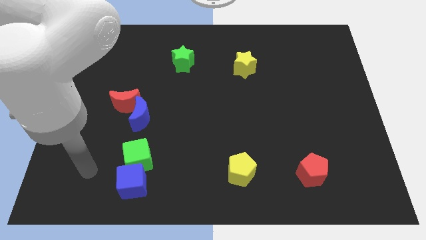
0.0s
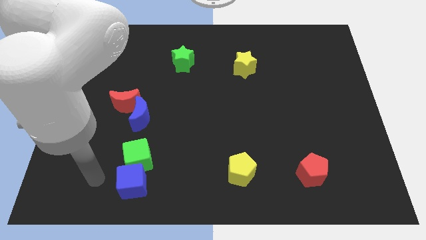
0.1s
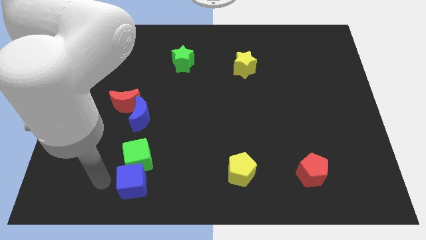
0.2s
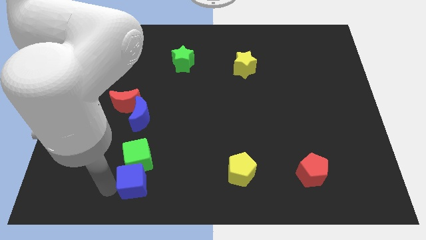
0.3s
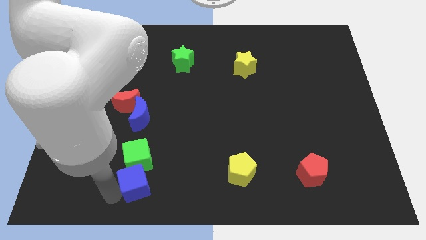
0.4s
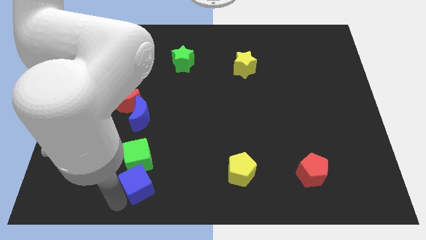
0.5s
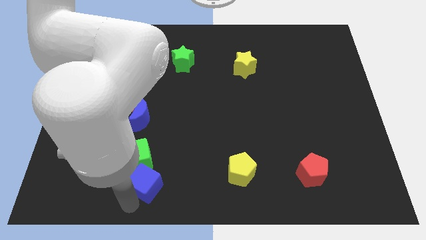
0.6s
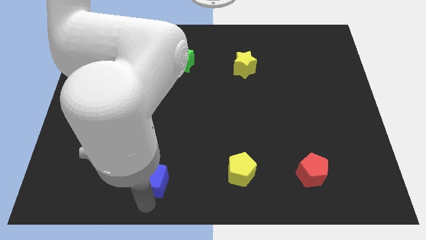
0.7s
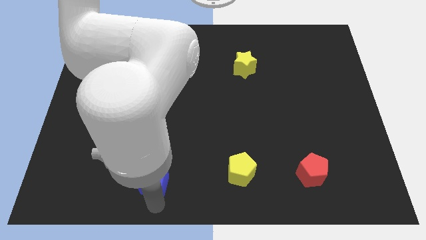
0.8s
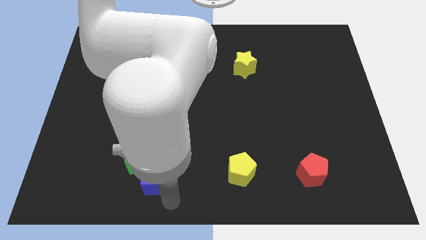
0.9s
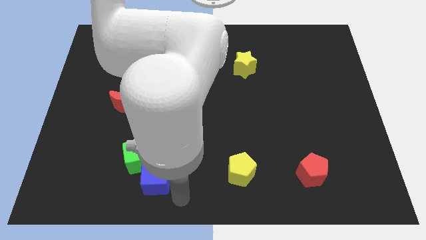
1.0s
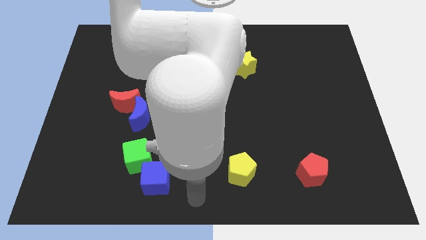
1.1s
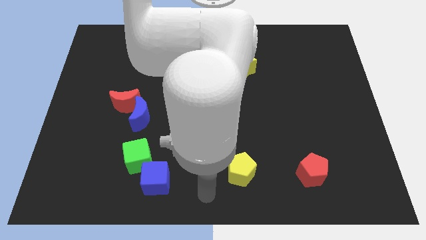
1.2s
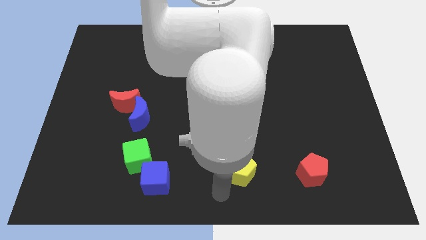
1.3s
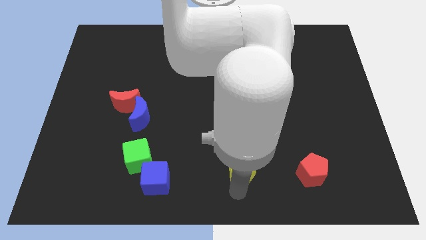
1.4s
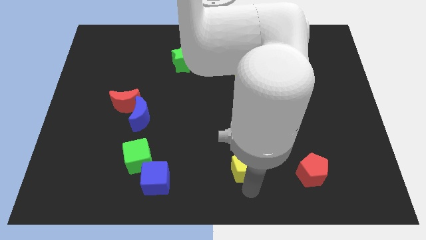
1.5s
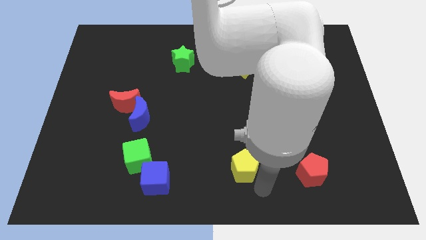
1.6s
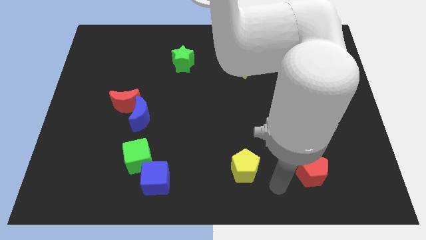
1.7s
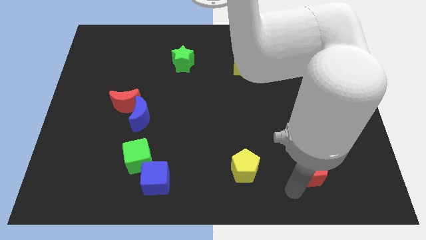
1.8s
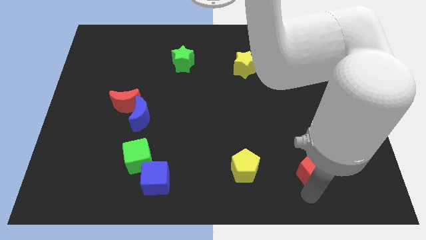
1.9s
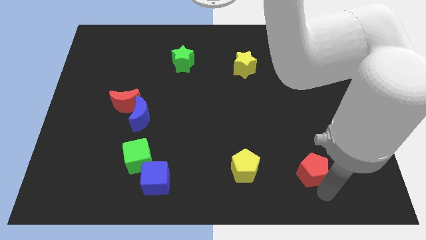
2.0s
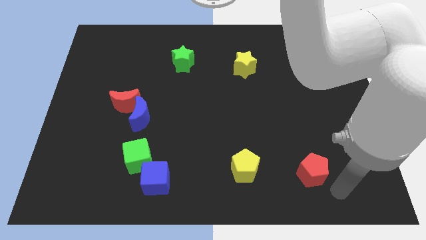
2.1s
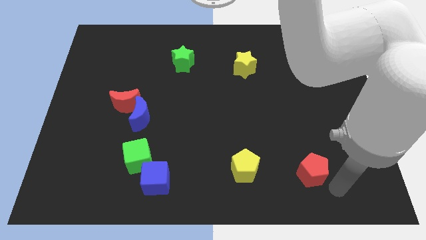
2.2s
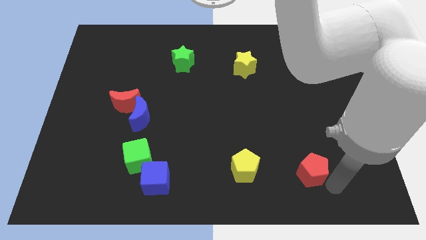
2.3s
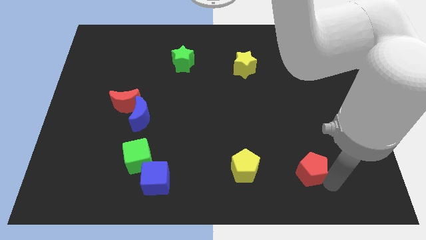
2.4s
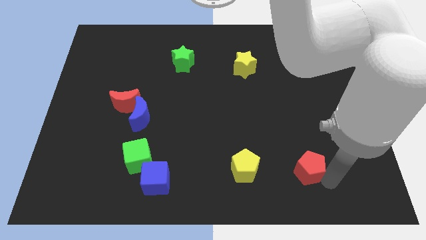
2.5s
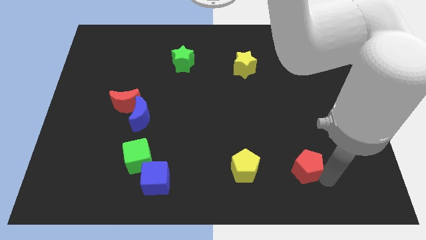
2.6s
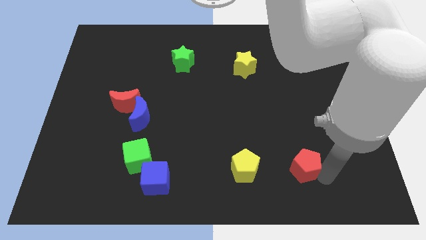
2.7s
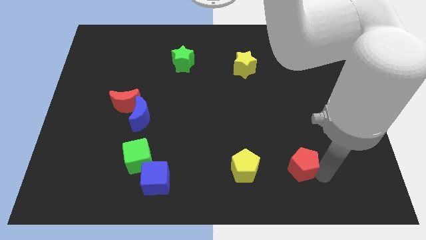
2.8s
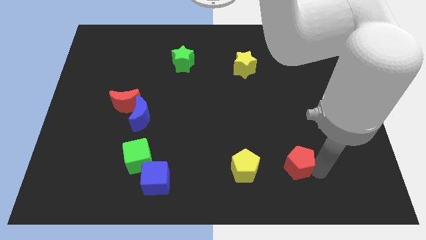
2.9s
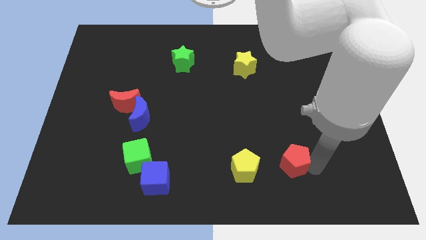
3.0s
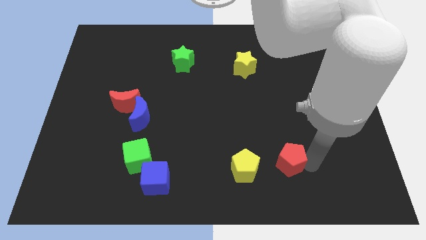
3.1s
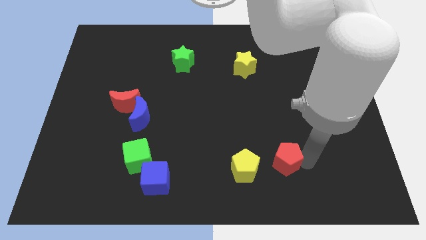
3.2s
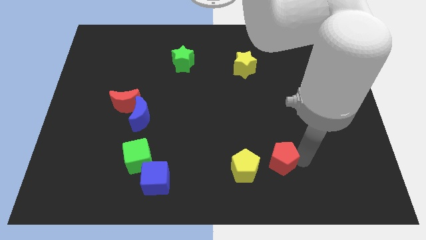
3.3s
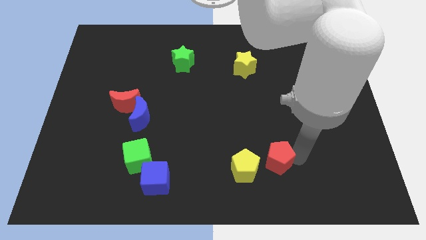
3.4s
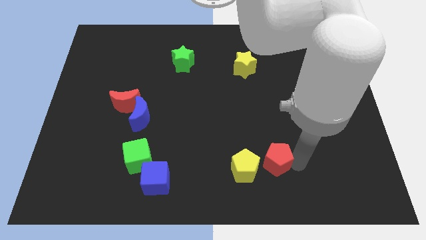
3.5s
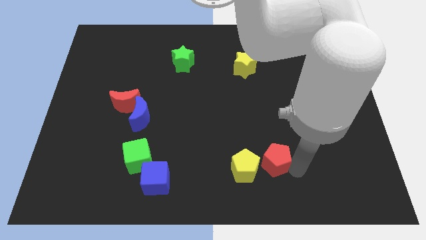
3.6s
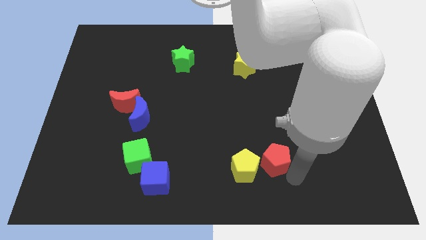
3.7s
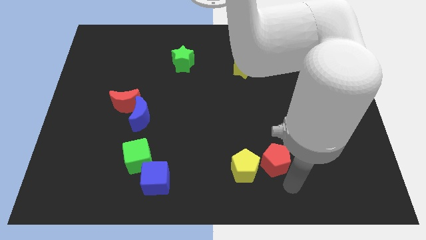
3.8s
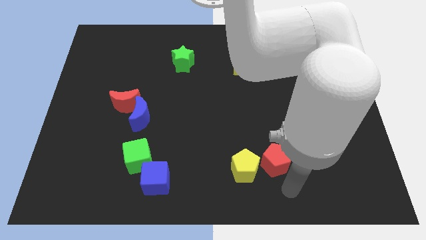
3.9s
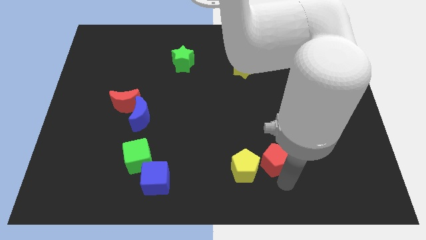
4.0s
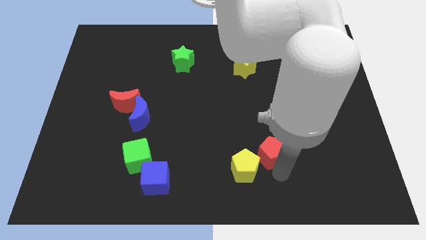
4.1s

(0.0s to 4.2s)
slightly slide the red pentagon diagonally up and left

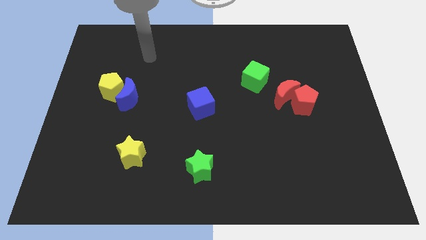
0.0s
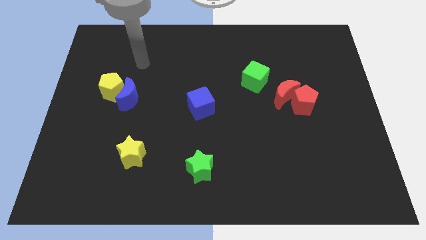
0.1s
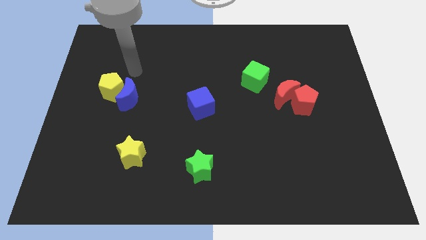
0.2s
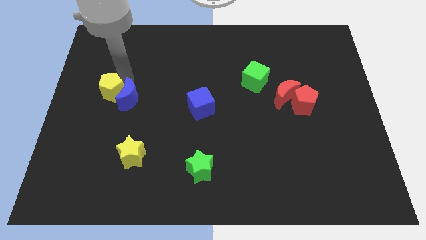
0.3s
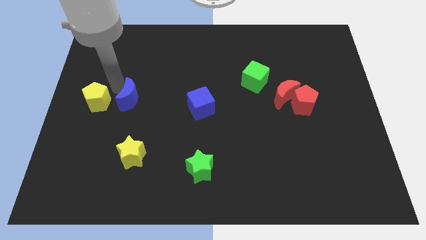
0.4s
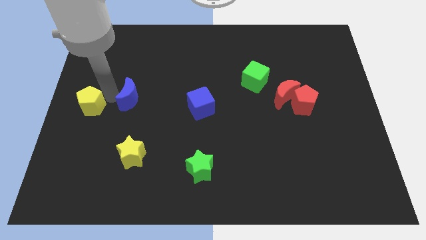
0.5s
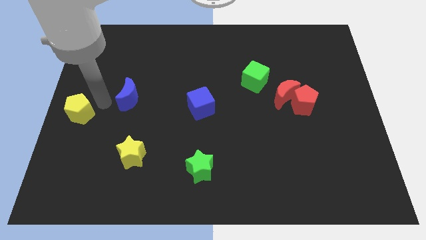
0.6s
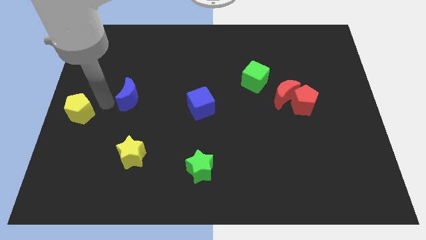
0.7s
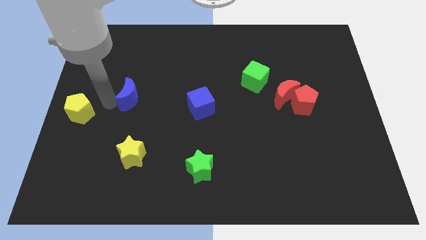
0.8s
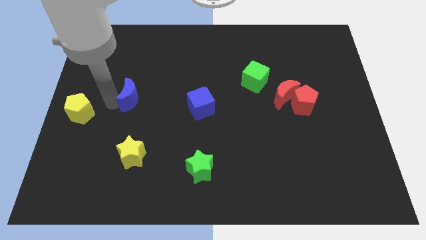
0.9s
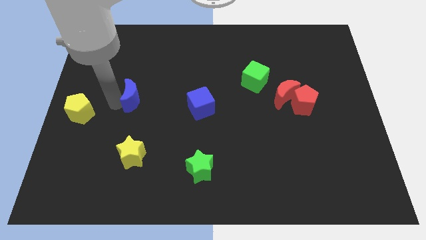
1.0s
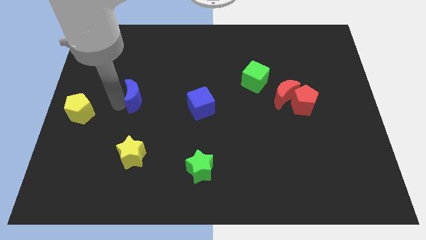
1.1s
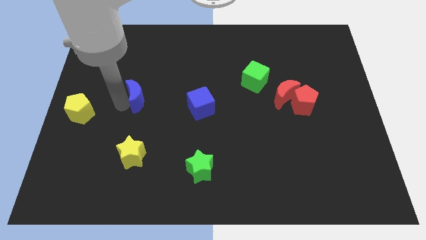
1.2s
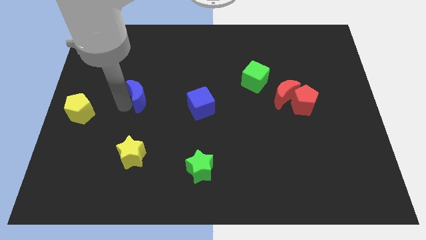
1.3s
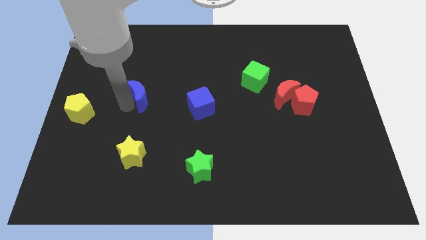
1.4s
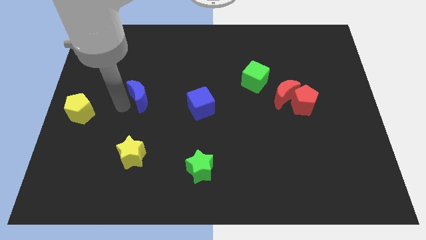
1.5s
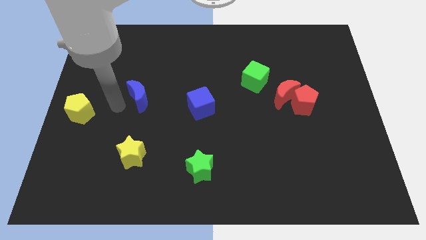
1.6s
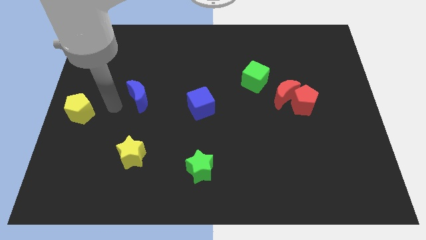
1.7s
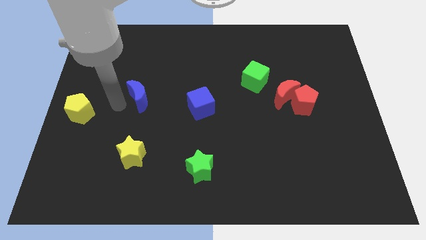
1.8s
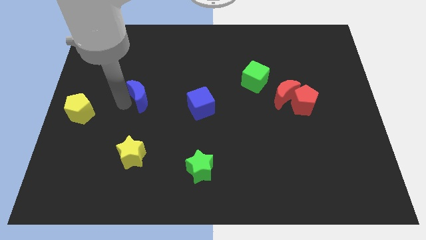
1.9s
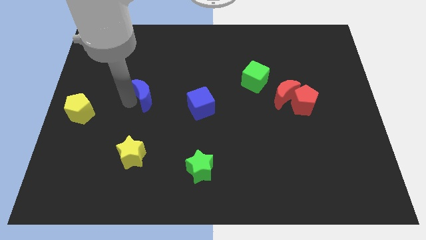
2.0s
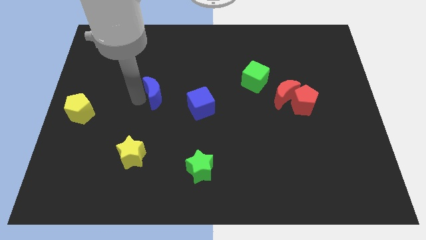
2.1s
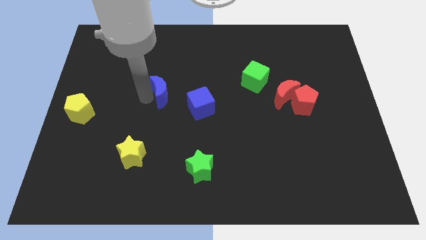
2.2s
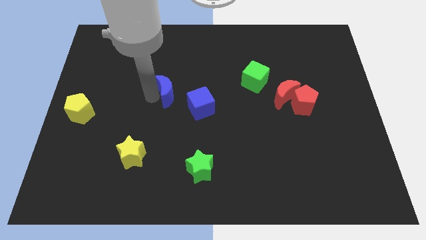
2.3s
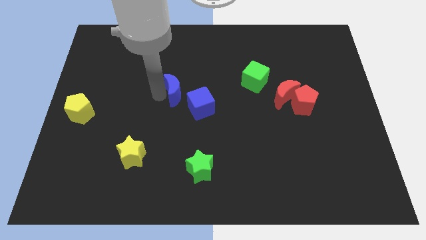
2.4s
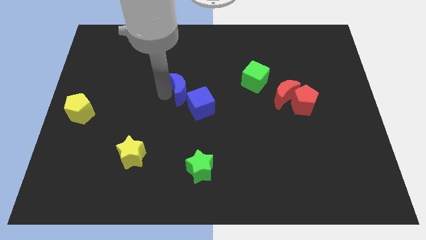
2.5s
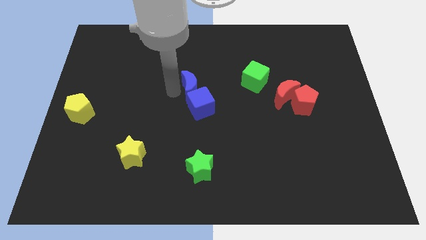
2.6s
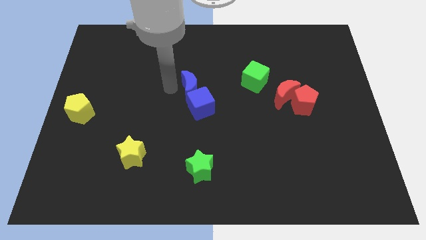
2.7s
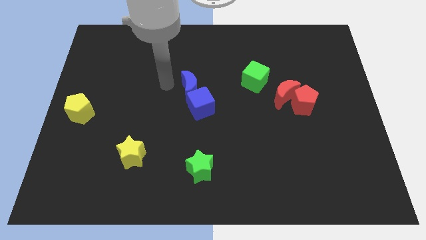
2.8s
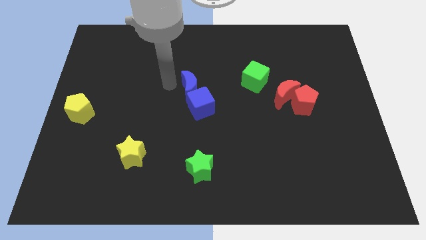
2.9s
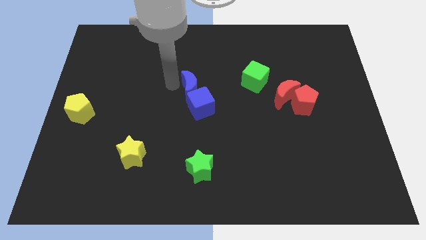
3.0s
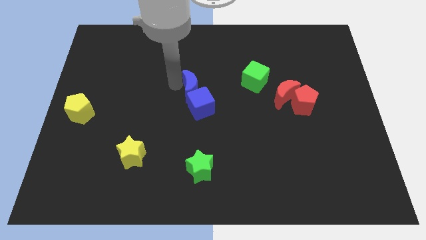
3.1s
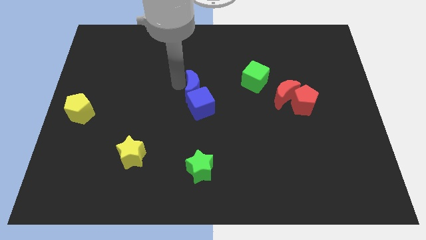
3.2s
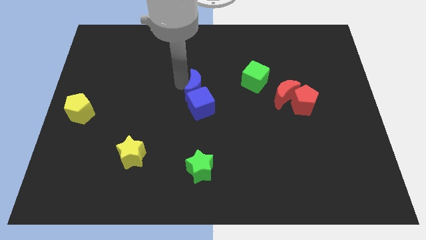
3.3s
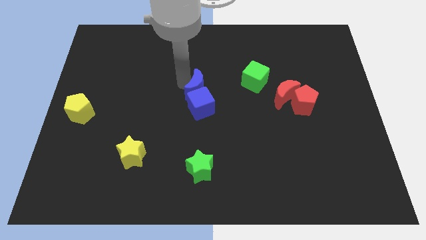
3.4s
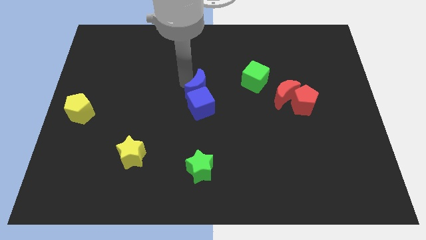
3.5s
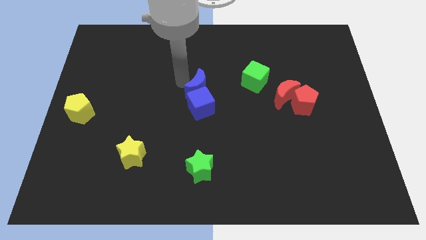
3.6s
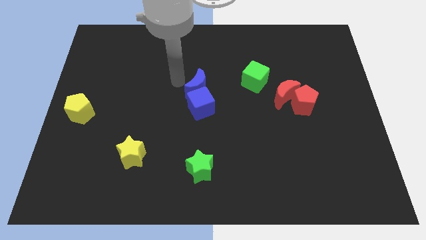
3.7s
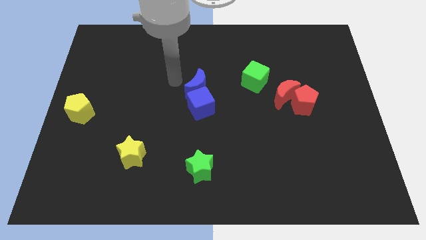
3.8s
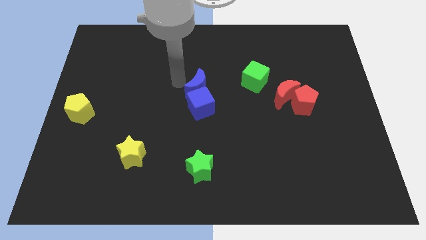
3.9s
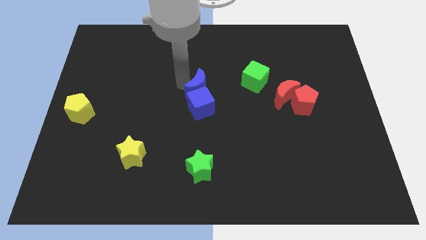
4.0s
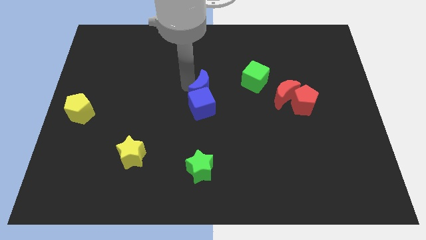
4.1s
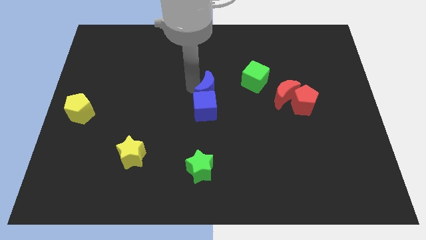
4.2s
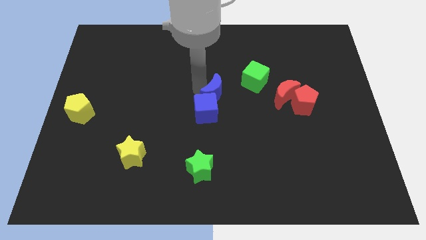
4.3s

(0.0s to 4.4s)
slide the blue moon right
